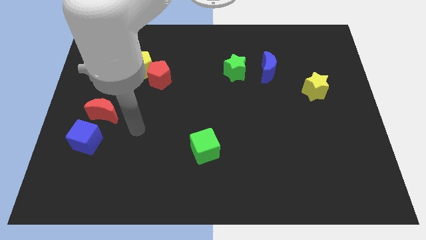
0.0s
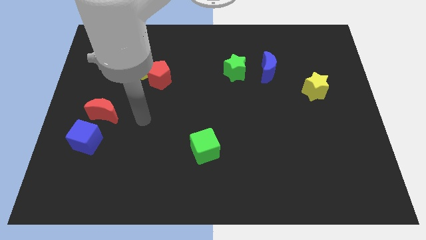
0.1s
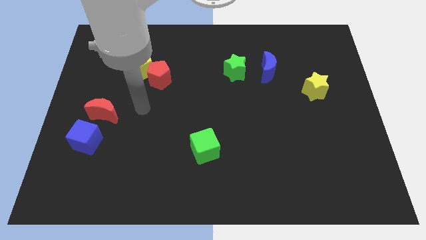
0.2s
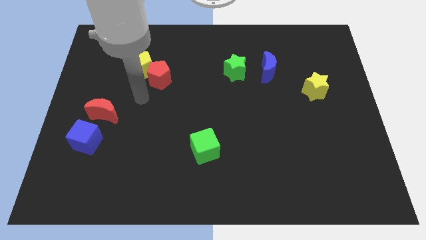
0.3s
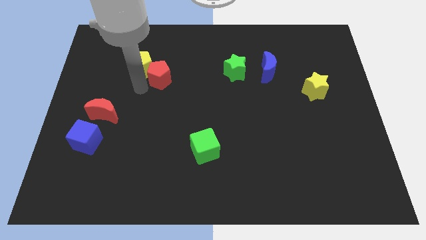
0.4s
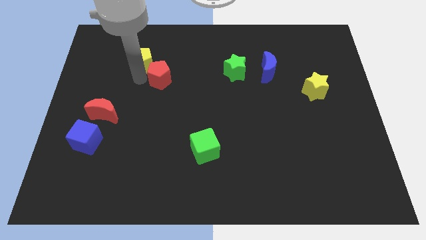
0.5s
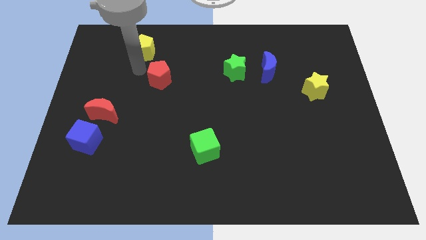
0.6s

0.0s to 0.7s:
separate the red pentagon from the yellow pentagon

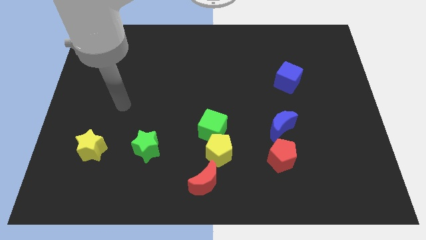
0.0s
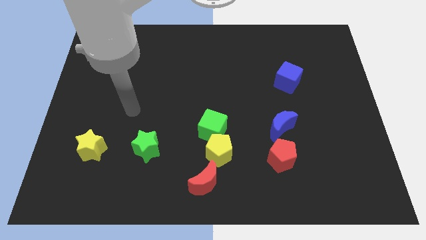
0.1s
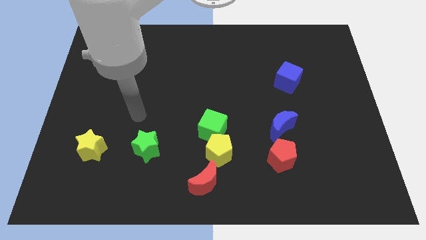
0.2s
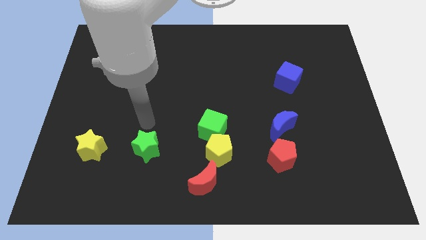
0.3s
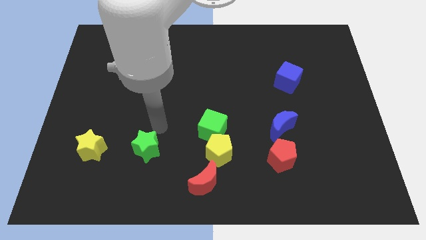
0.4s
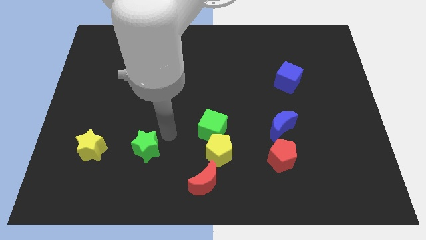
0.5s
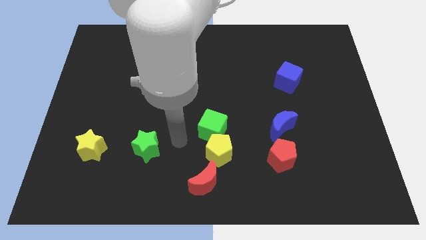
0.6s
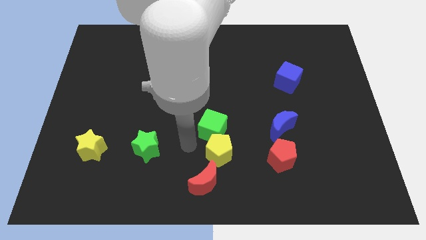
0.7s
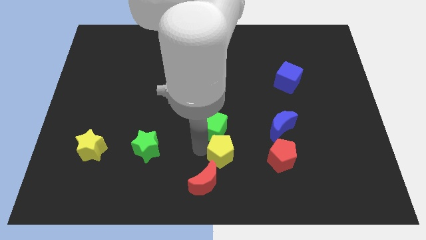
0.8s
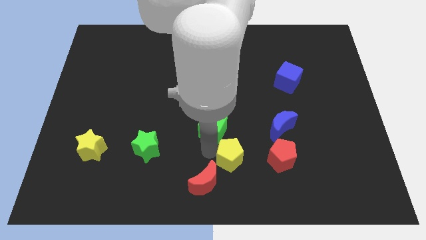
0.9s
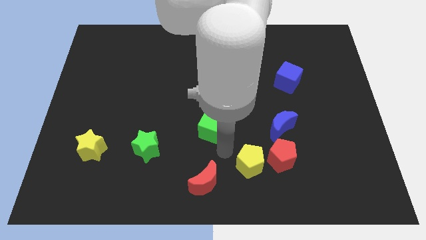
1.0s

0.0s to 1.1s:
move the green cube away from the yellow pentagon

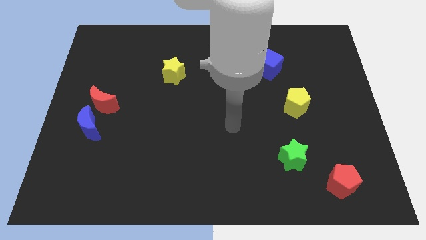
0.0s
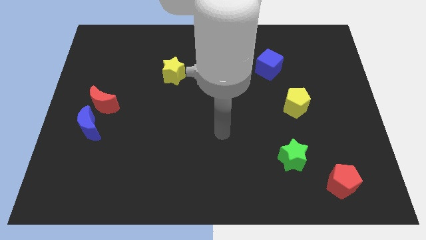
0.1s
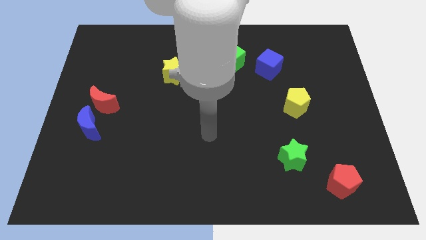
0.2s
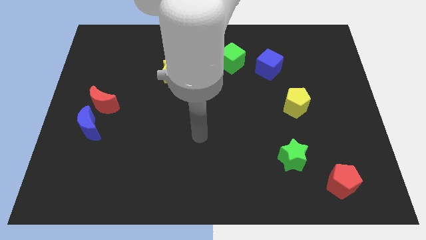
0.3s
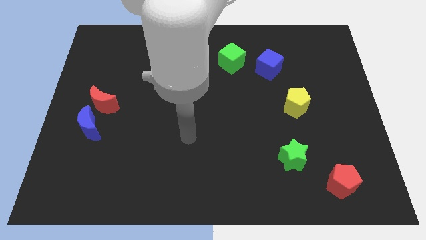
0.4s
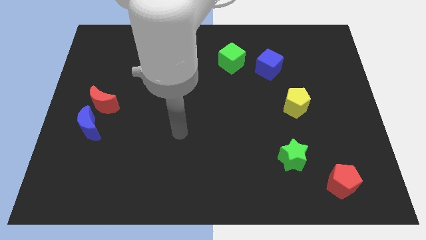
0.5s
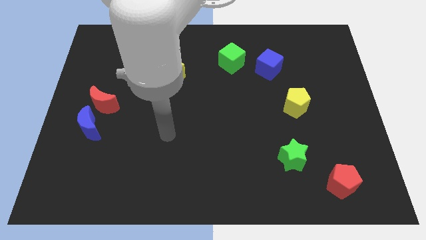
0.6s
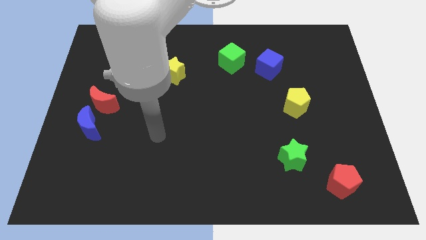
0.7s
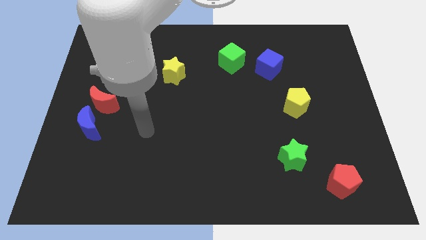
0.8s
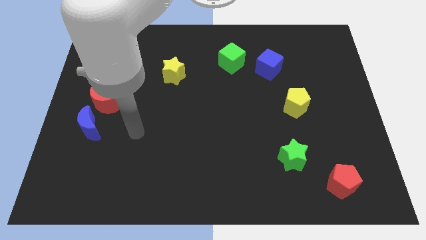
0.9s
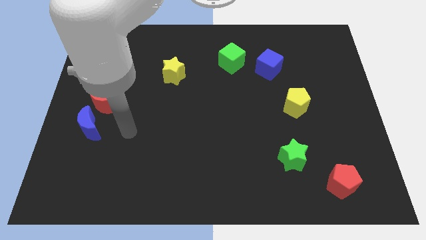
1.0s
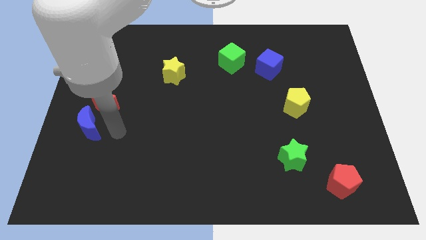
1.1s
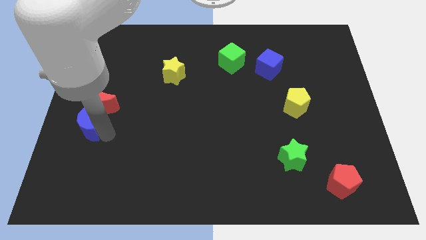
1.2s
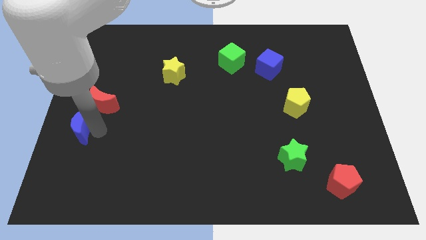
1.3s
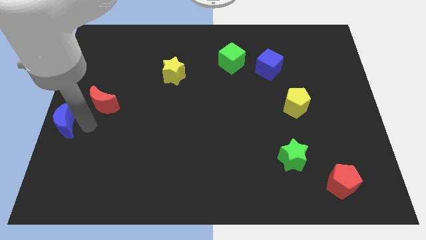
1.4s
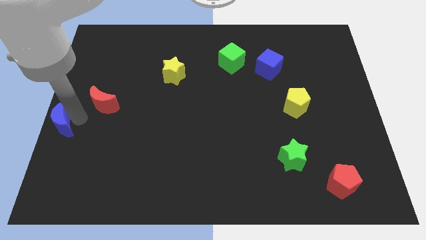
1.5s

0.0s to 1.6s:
pull the red moon apart from the blue moon

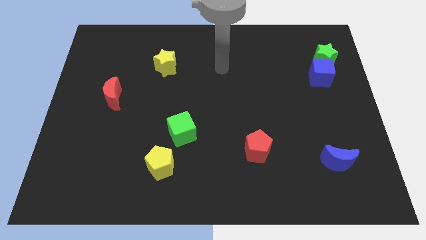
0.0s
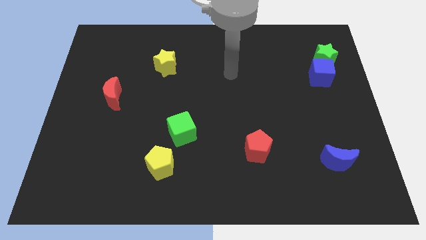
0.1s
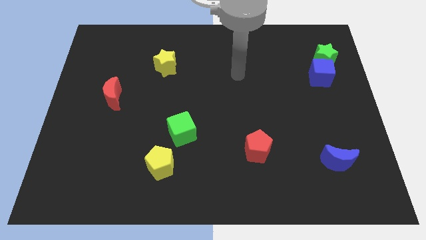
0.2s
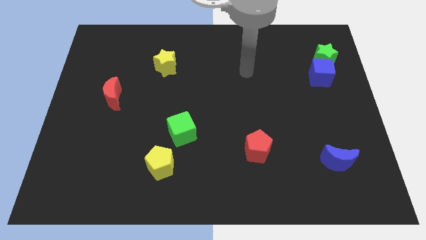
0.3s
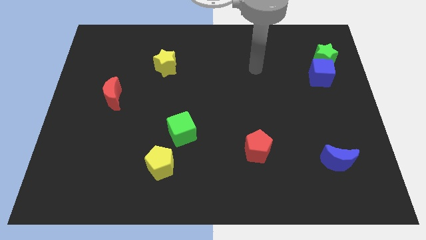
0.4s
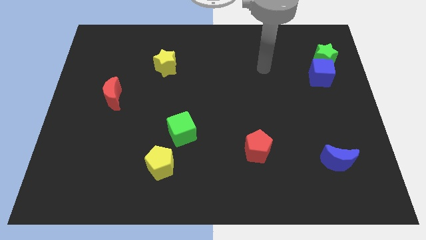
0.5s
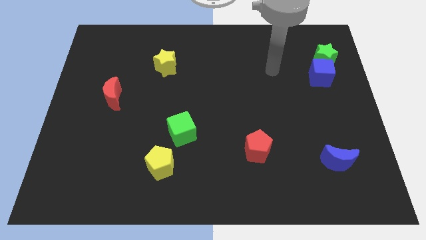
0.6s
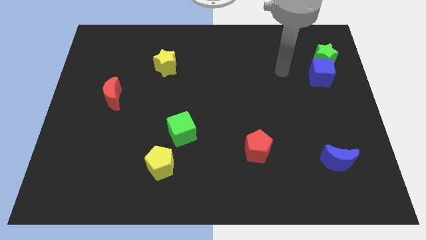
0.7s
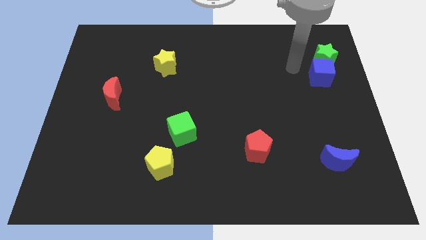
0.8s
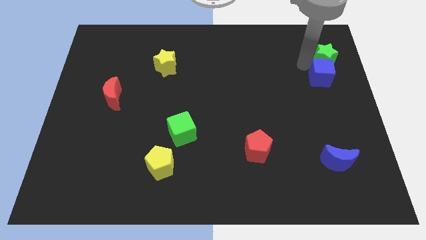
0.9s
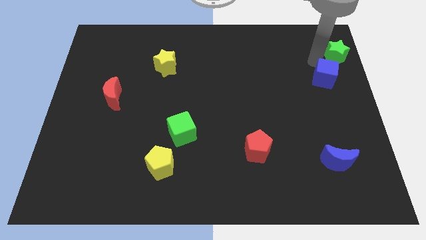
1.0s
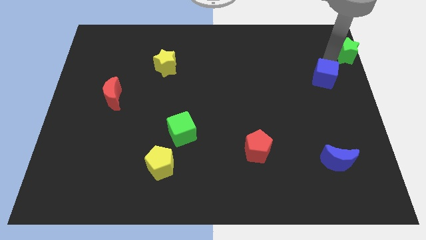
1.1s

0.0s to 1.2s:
move the blue cube away from the green star

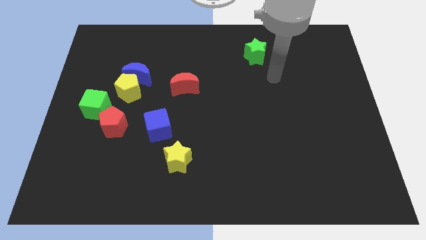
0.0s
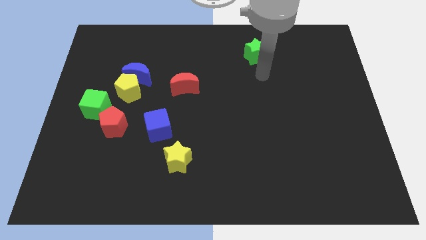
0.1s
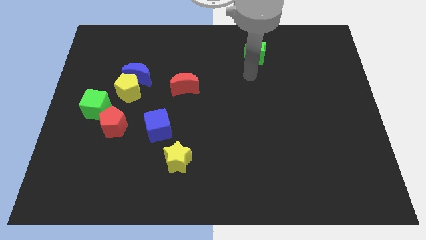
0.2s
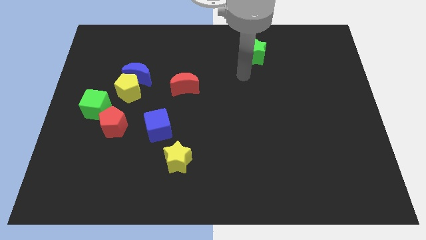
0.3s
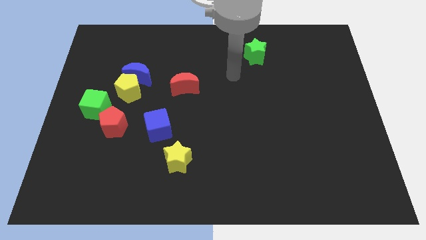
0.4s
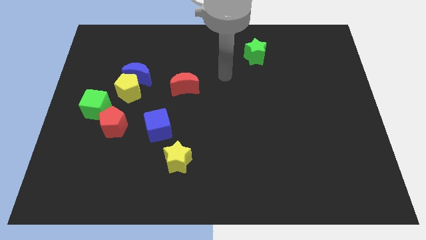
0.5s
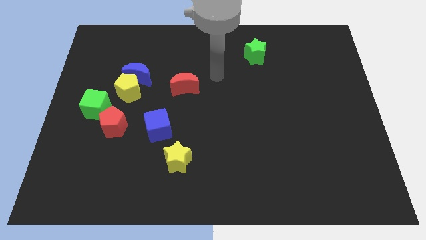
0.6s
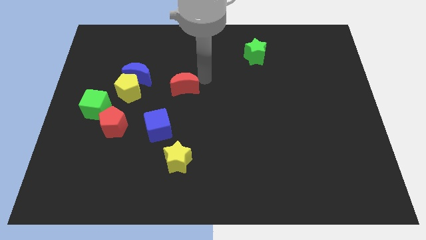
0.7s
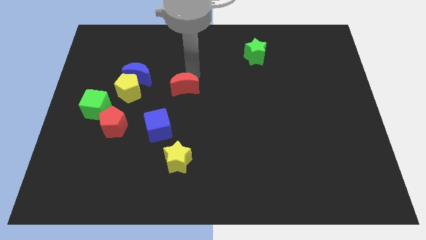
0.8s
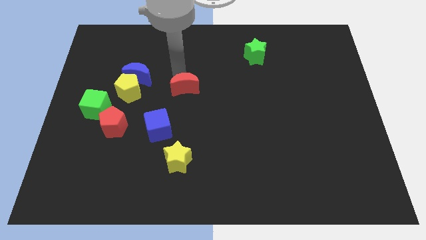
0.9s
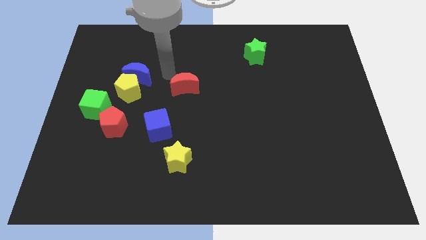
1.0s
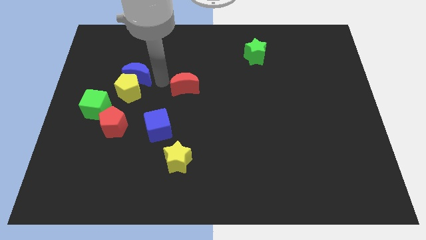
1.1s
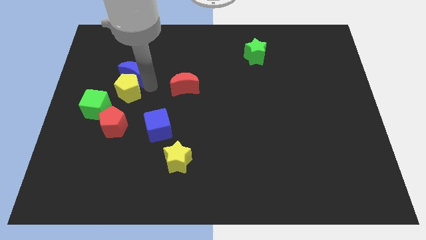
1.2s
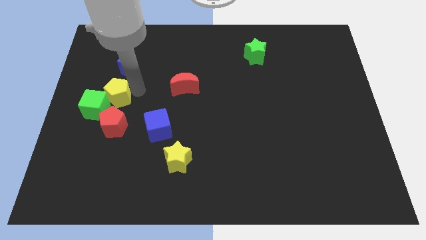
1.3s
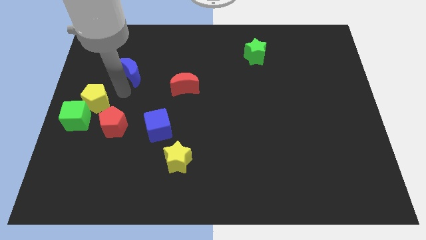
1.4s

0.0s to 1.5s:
pull the blue moon apart from the yellow pentagon

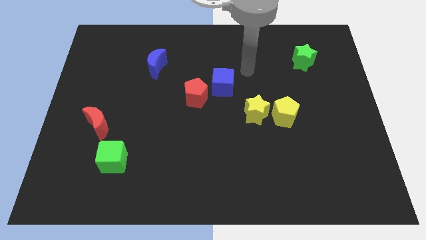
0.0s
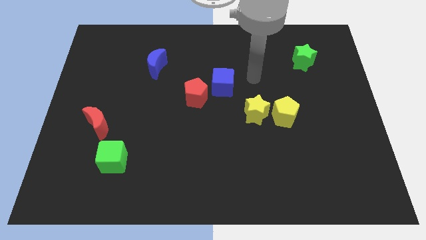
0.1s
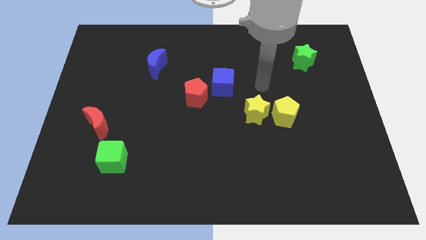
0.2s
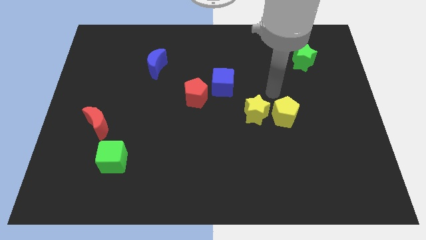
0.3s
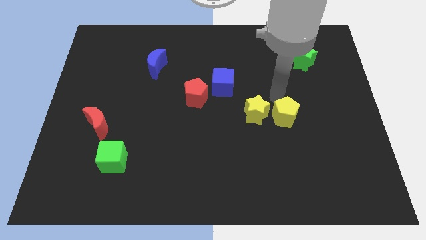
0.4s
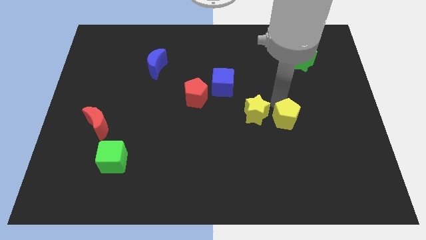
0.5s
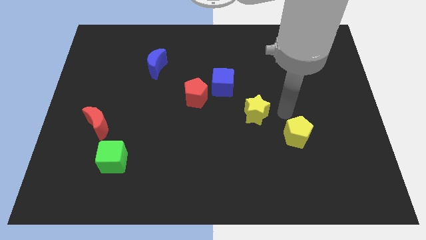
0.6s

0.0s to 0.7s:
move the yellow star away from the yellow pentagon

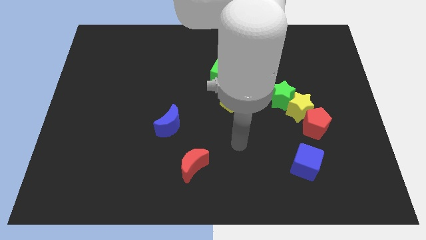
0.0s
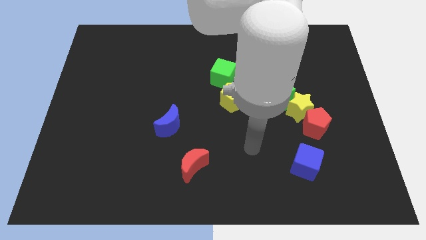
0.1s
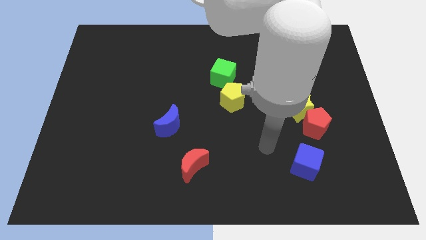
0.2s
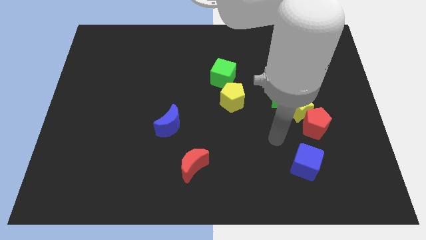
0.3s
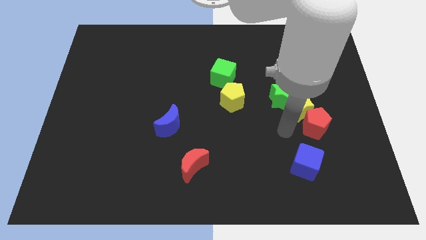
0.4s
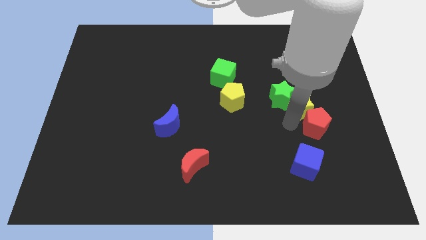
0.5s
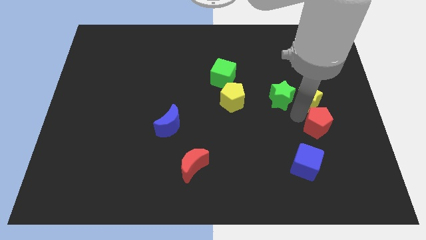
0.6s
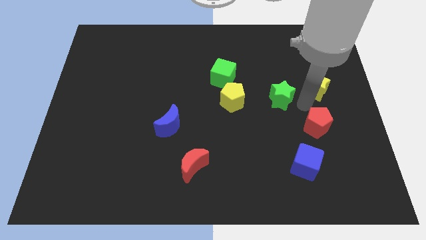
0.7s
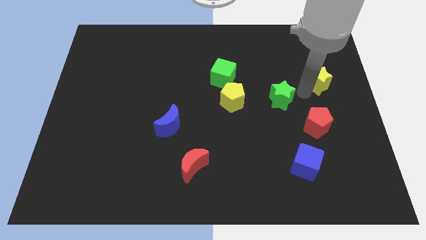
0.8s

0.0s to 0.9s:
move the green star away from the yellow star

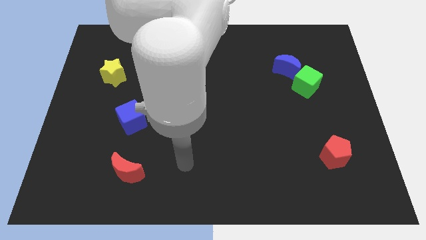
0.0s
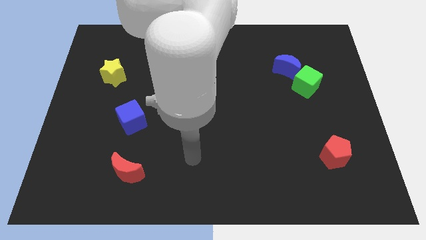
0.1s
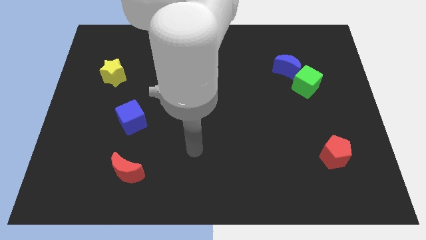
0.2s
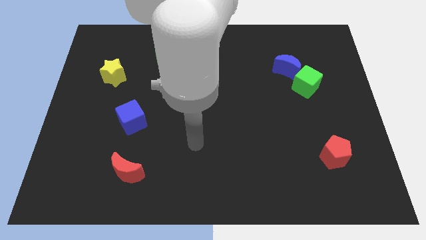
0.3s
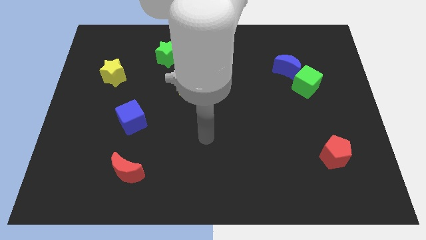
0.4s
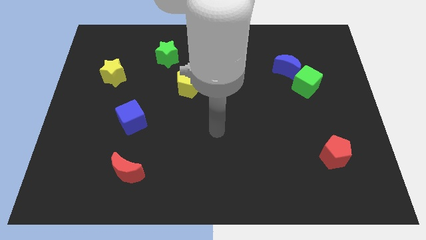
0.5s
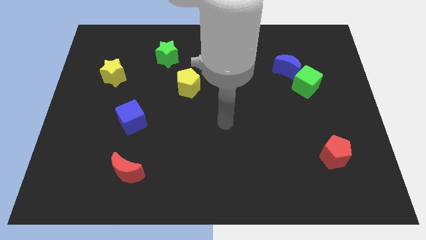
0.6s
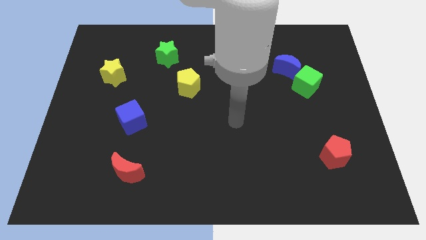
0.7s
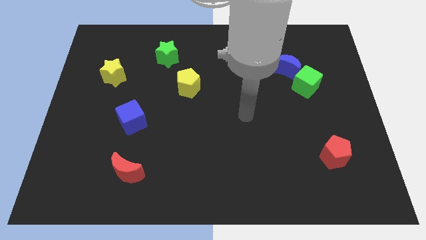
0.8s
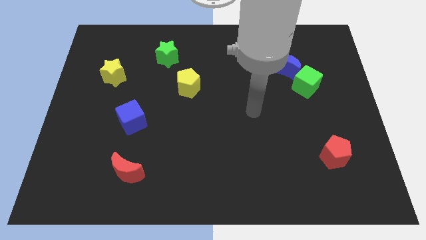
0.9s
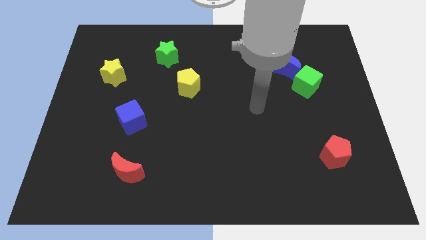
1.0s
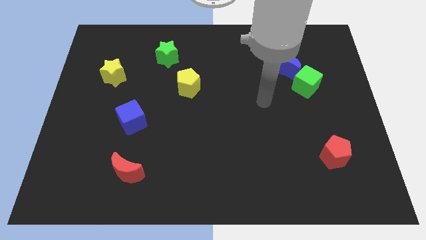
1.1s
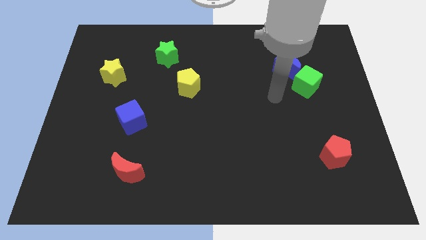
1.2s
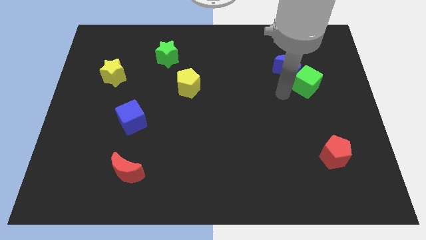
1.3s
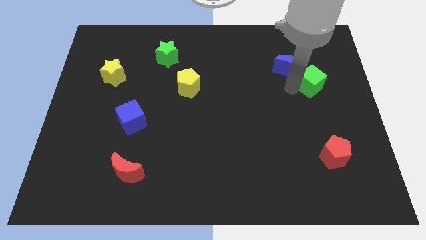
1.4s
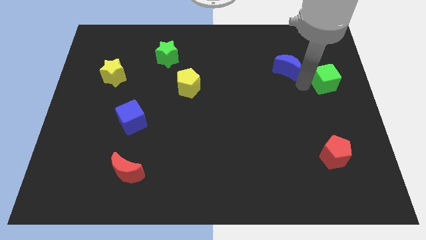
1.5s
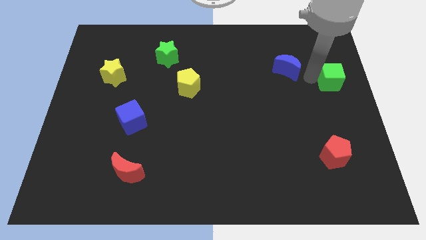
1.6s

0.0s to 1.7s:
move the blue moon away from the green cube
